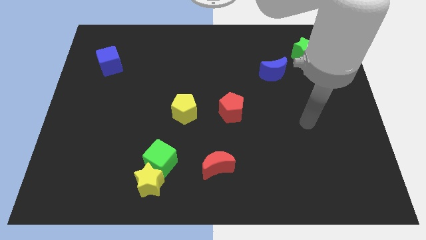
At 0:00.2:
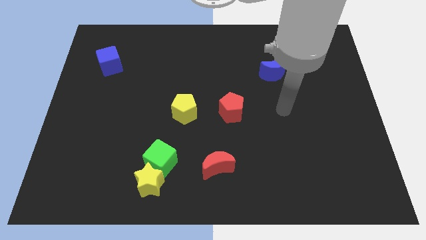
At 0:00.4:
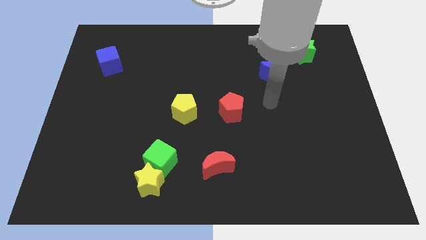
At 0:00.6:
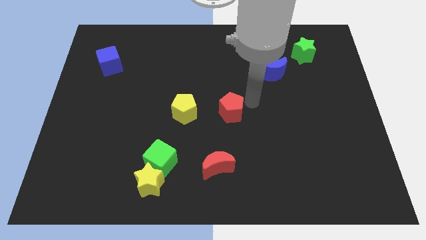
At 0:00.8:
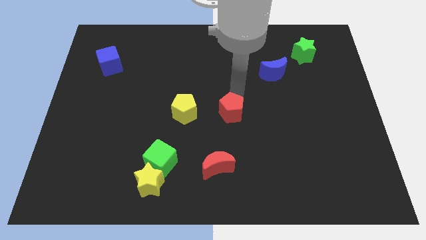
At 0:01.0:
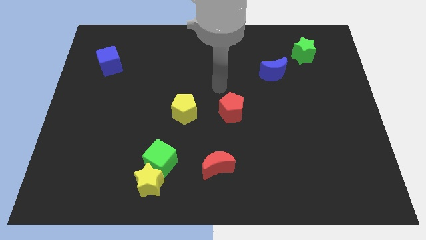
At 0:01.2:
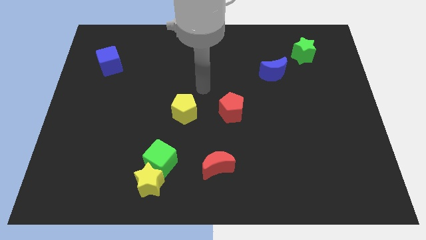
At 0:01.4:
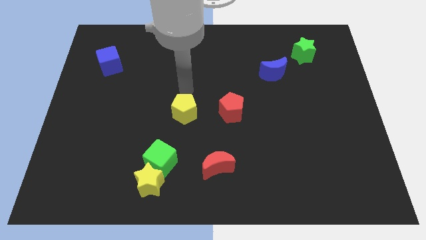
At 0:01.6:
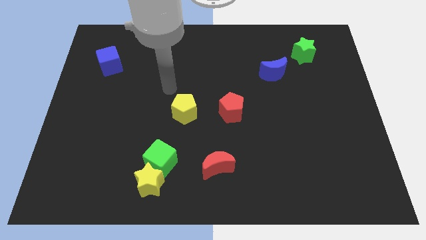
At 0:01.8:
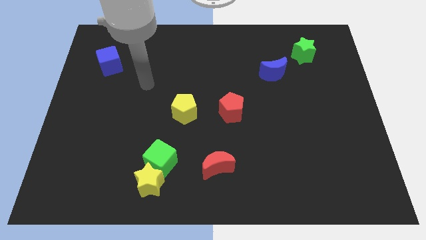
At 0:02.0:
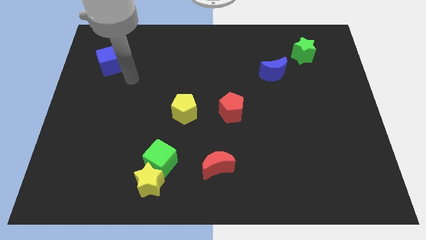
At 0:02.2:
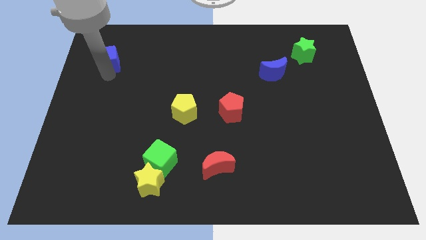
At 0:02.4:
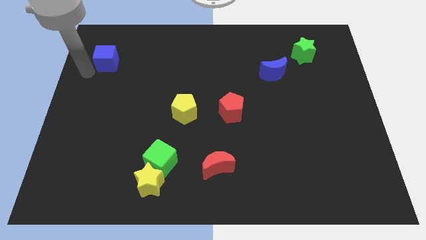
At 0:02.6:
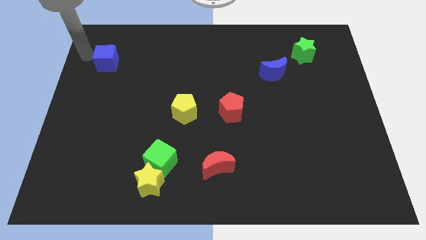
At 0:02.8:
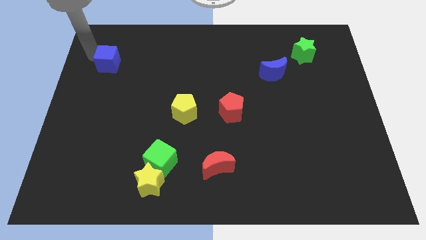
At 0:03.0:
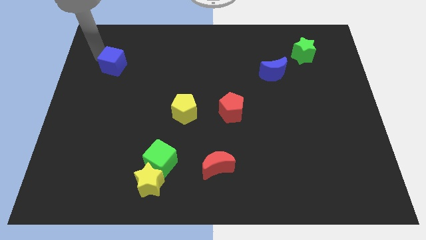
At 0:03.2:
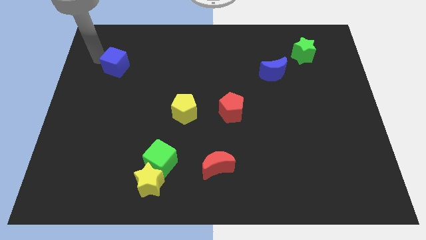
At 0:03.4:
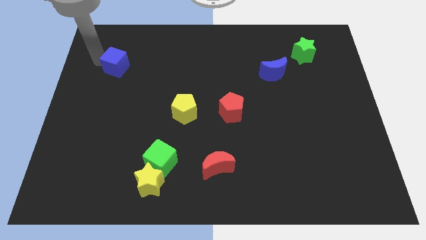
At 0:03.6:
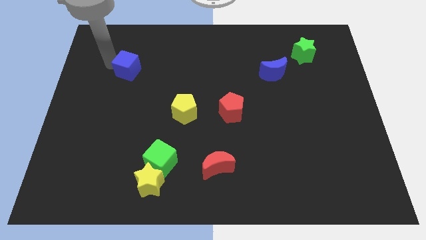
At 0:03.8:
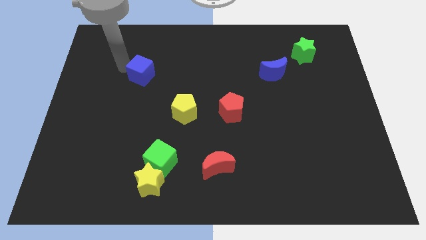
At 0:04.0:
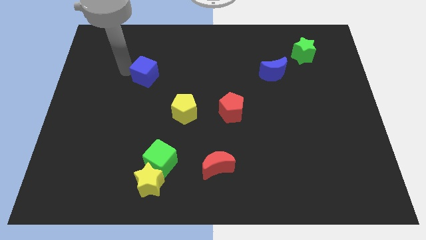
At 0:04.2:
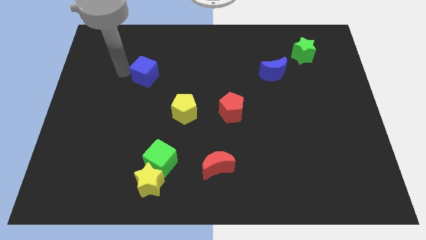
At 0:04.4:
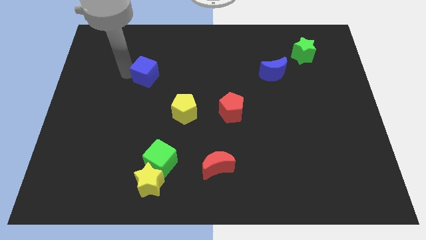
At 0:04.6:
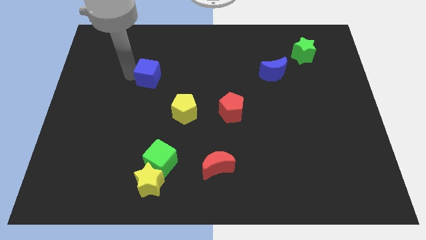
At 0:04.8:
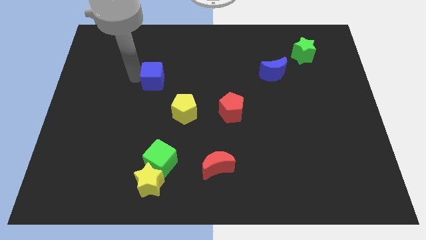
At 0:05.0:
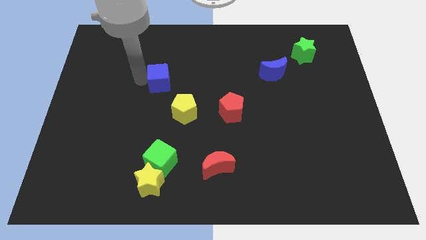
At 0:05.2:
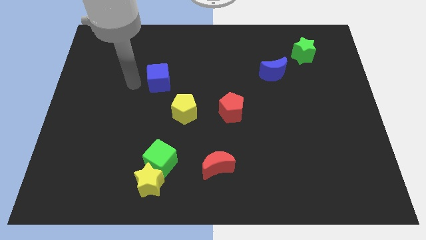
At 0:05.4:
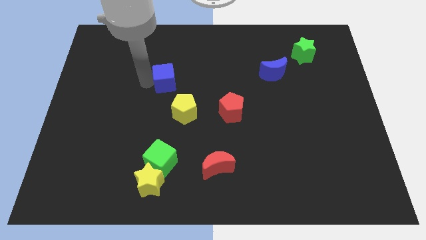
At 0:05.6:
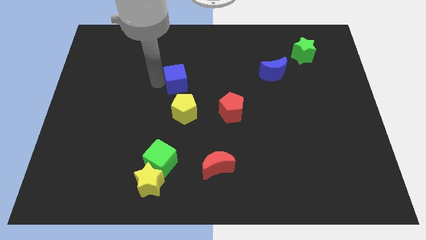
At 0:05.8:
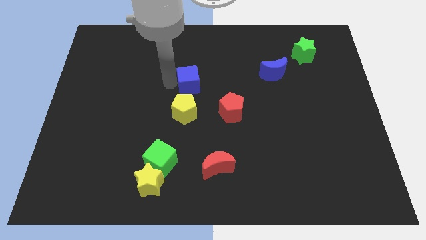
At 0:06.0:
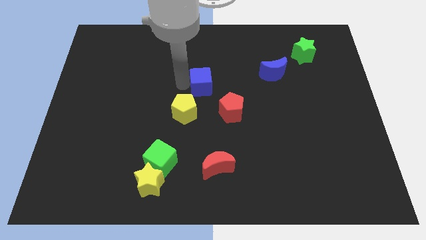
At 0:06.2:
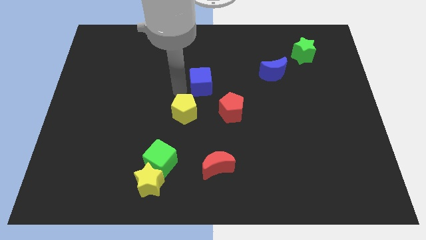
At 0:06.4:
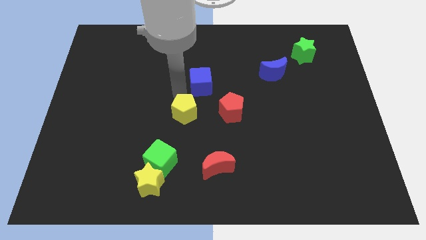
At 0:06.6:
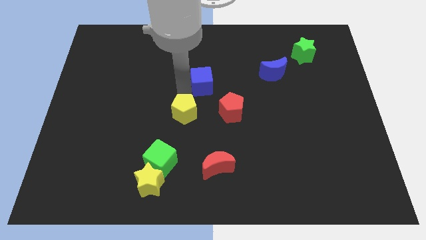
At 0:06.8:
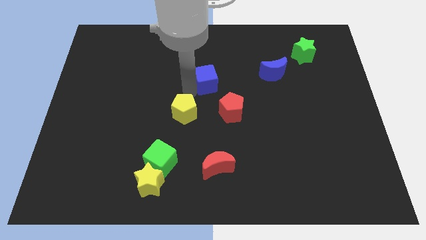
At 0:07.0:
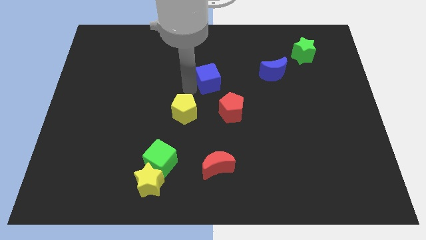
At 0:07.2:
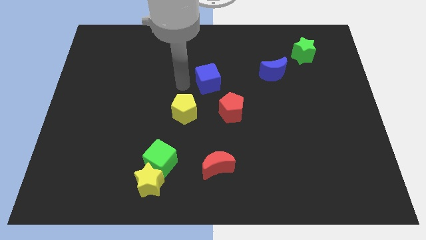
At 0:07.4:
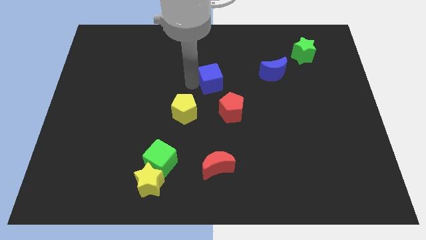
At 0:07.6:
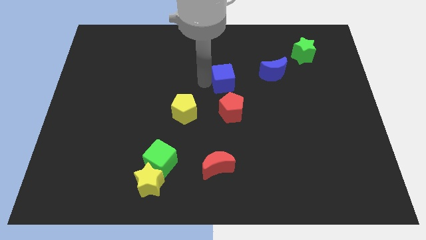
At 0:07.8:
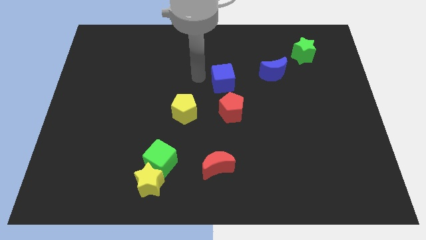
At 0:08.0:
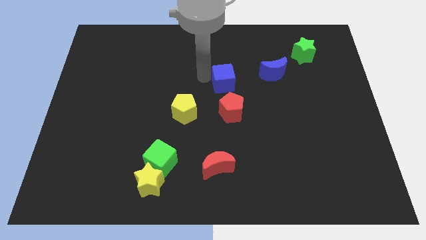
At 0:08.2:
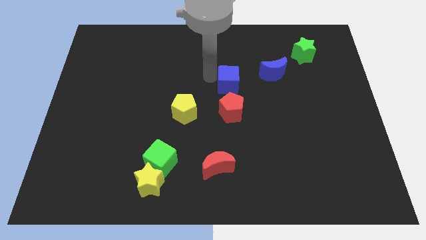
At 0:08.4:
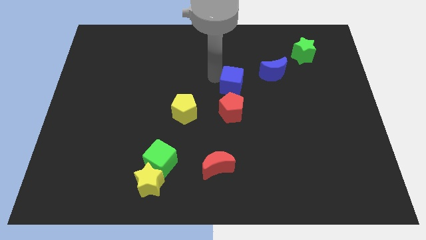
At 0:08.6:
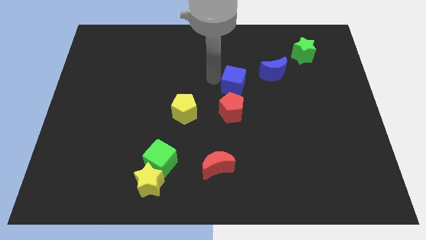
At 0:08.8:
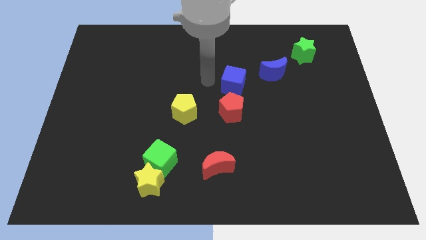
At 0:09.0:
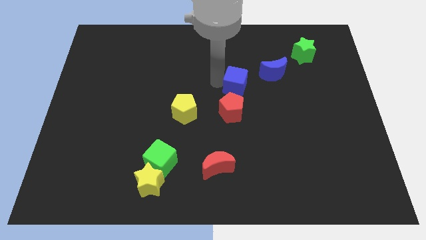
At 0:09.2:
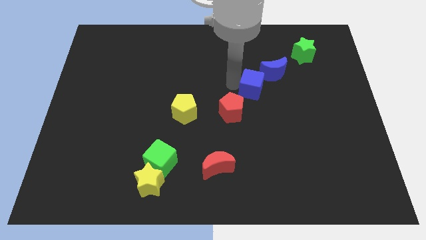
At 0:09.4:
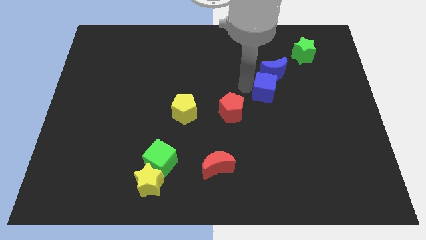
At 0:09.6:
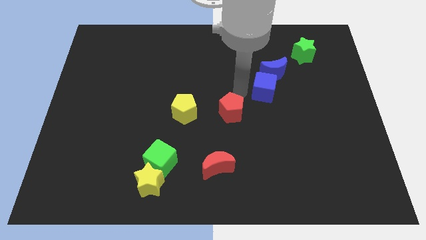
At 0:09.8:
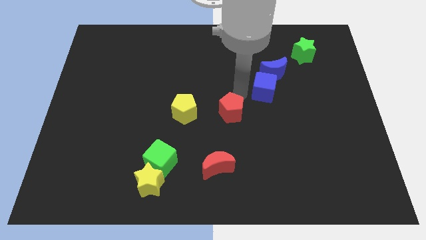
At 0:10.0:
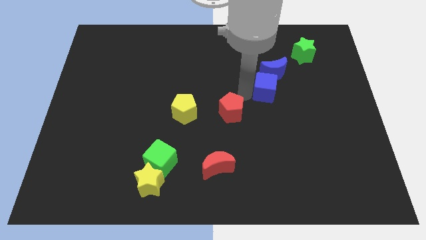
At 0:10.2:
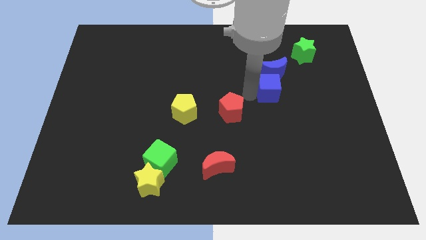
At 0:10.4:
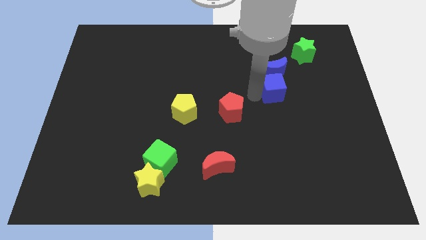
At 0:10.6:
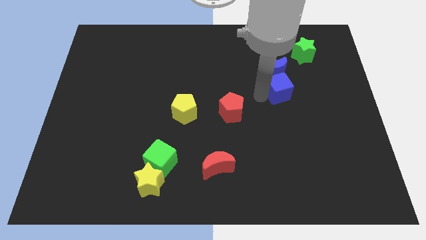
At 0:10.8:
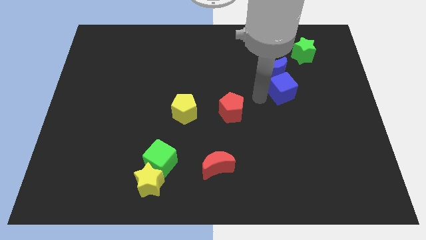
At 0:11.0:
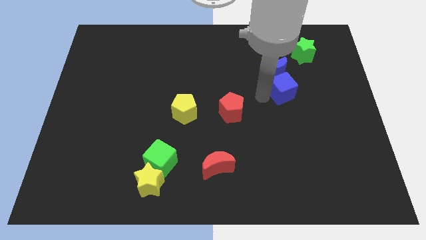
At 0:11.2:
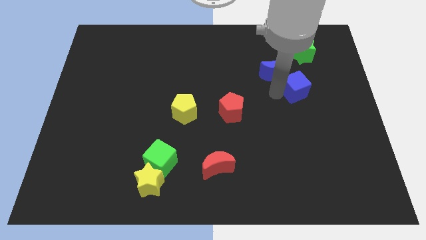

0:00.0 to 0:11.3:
put the blue cube to the bottom of the green star
